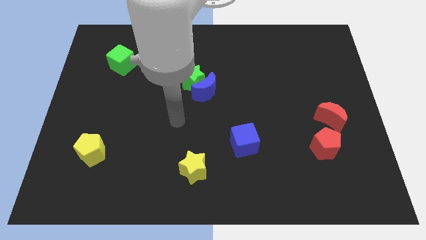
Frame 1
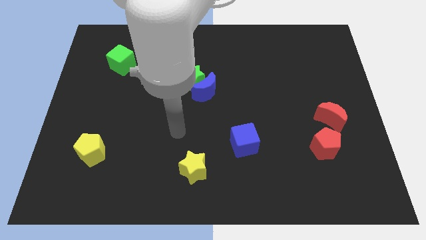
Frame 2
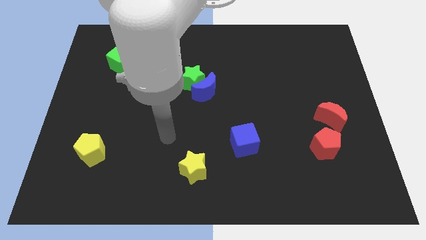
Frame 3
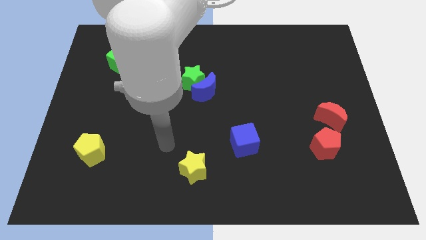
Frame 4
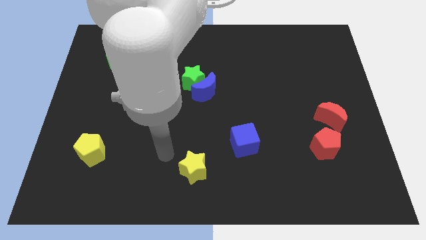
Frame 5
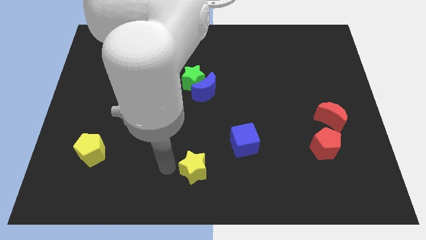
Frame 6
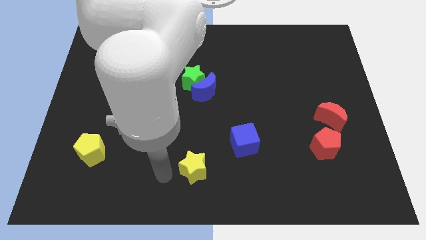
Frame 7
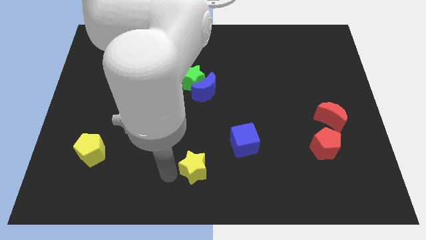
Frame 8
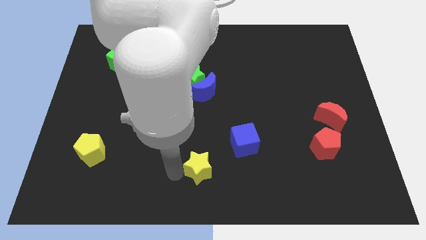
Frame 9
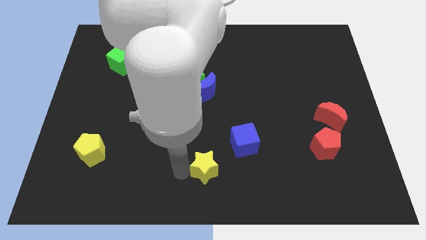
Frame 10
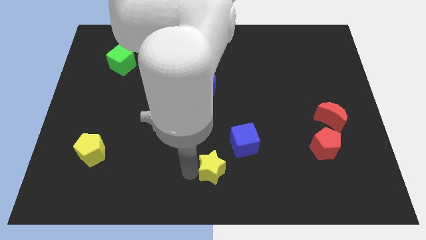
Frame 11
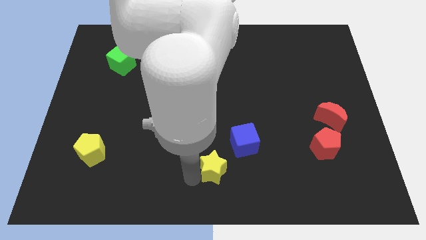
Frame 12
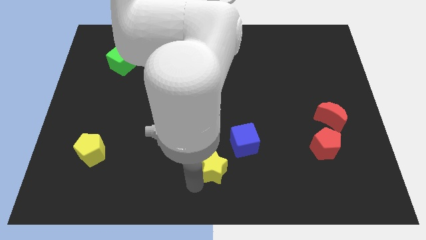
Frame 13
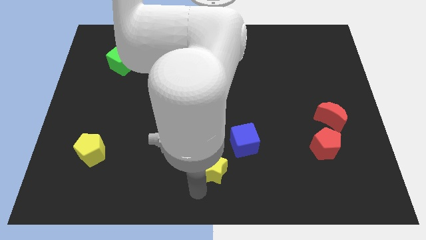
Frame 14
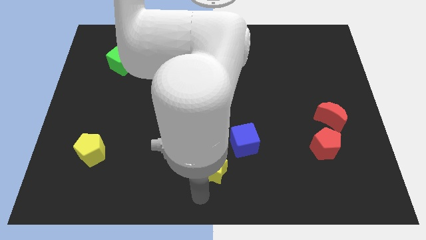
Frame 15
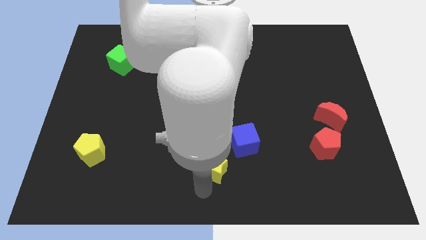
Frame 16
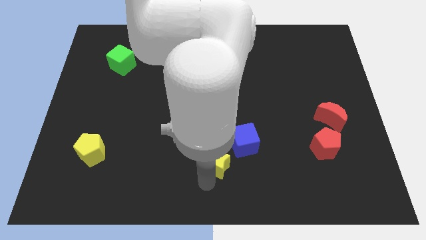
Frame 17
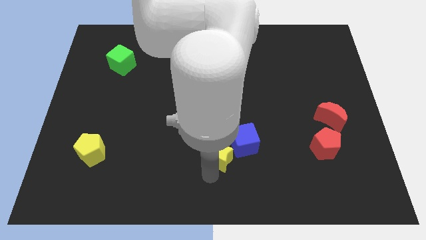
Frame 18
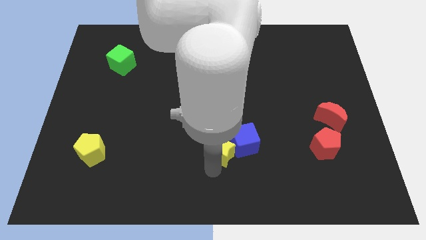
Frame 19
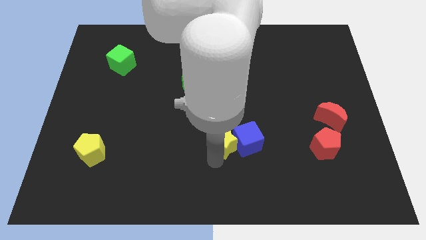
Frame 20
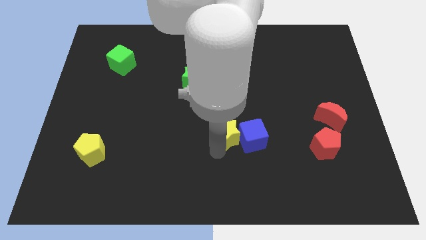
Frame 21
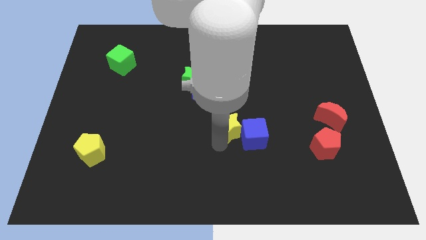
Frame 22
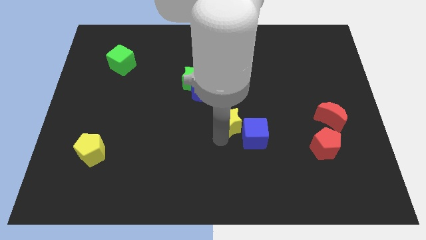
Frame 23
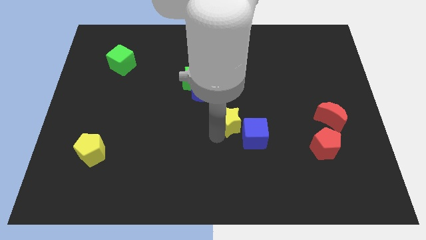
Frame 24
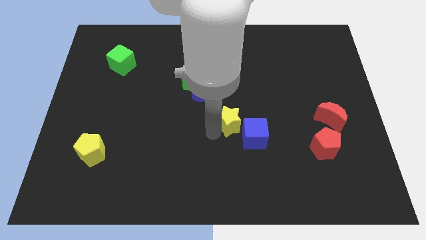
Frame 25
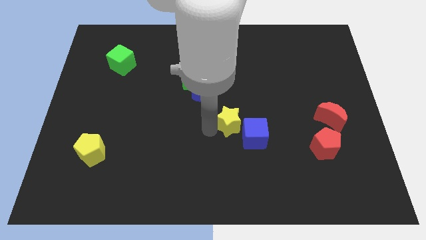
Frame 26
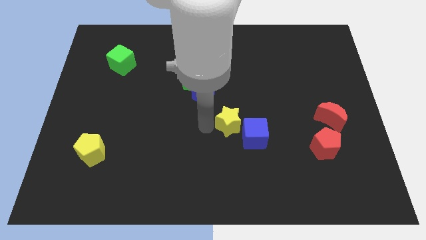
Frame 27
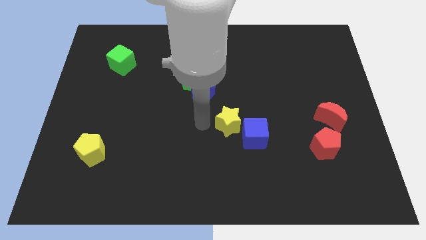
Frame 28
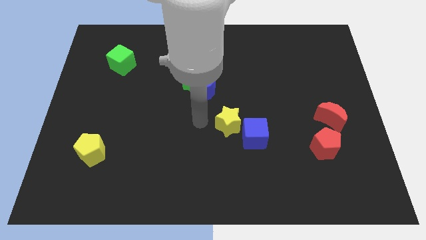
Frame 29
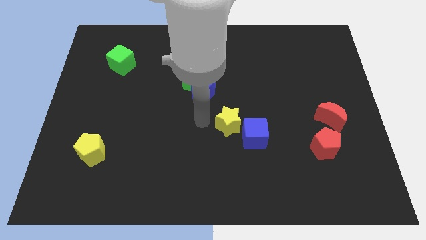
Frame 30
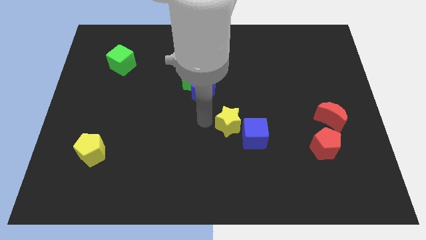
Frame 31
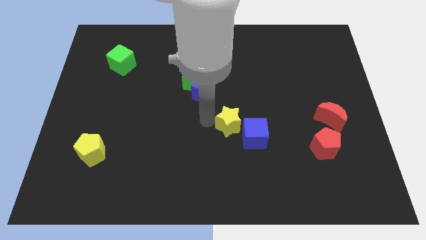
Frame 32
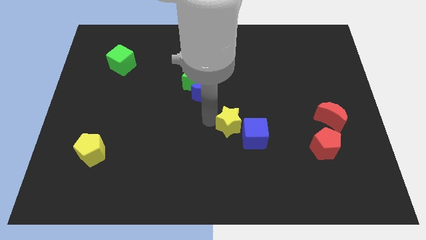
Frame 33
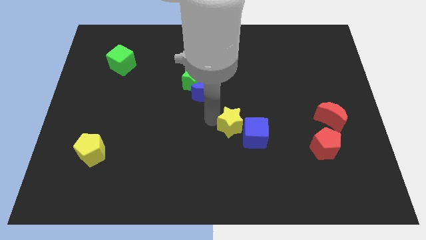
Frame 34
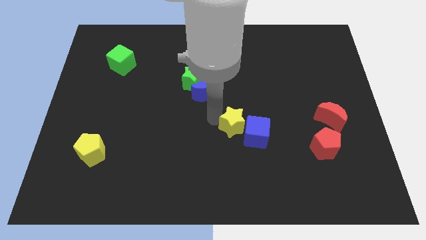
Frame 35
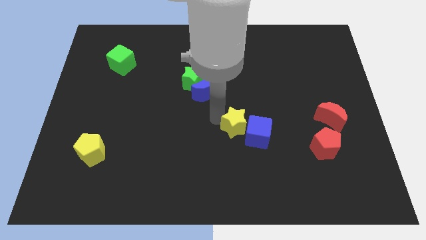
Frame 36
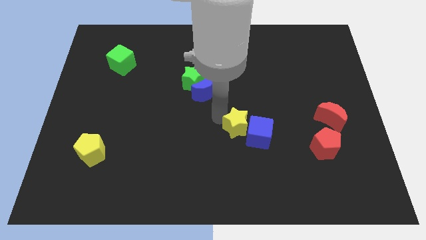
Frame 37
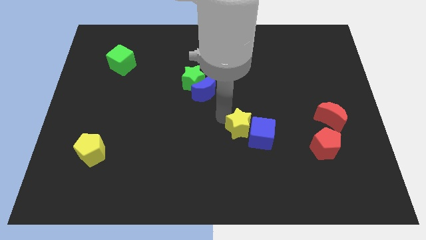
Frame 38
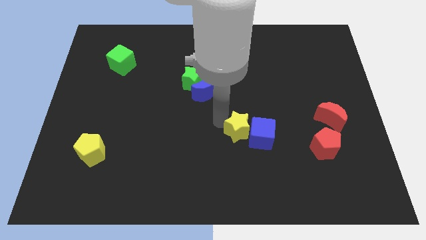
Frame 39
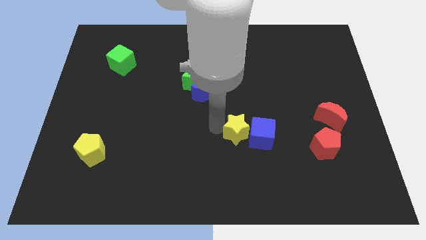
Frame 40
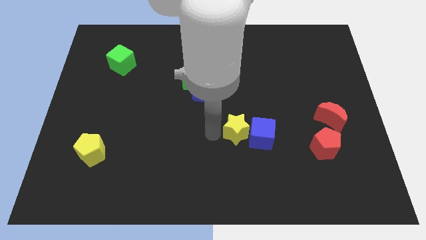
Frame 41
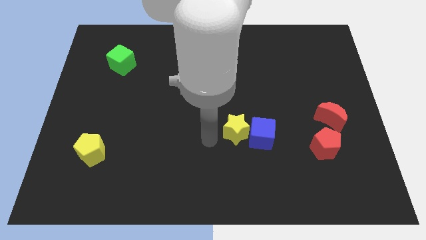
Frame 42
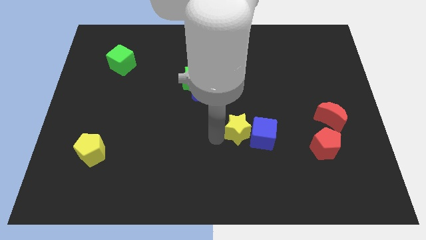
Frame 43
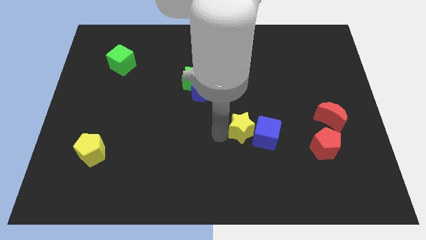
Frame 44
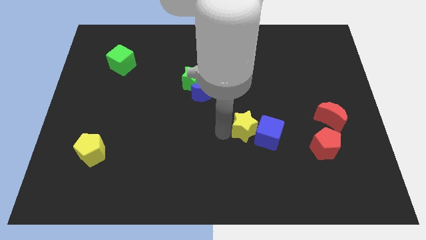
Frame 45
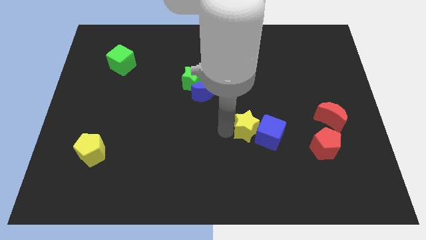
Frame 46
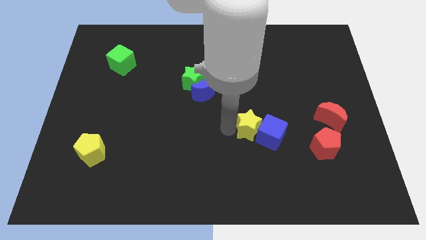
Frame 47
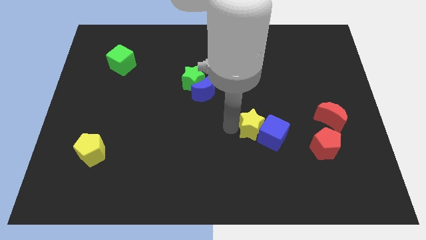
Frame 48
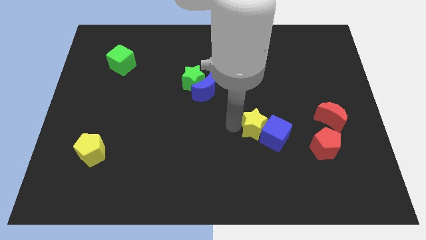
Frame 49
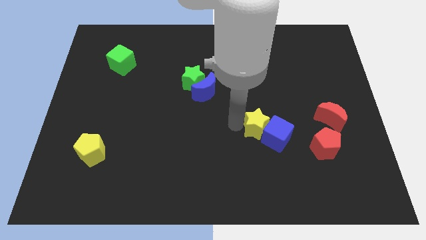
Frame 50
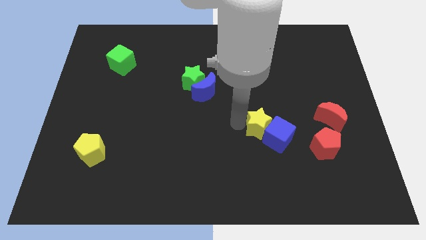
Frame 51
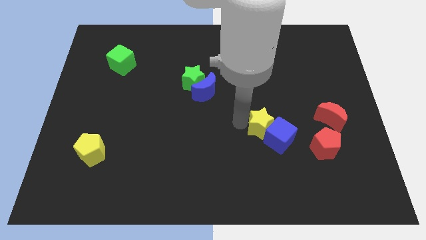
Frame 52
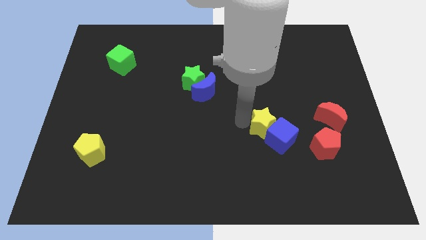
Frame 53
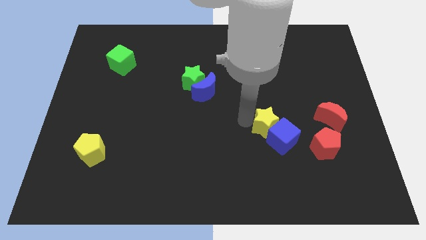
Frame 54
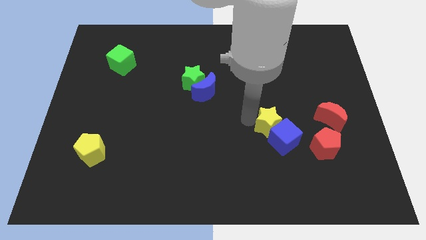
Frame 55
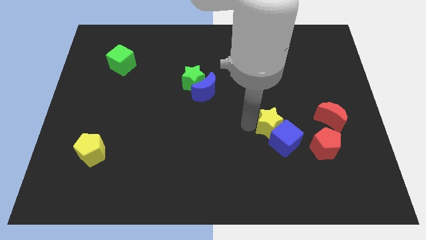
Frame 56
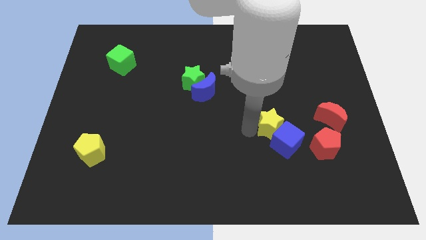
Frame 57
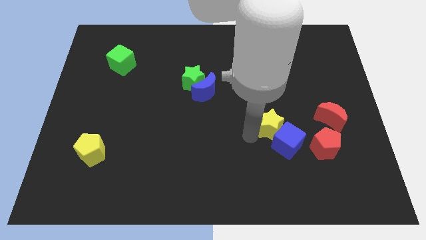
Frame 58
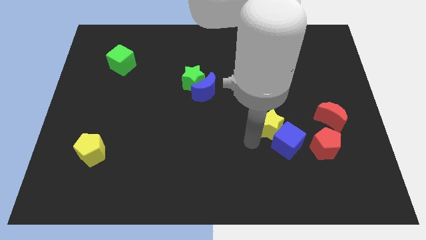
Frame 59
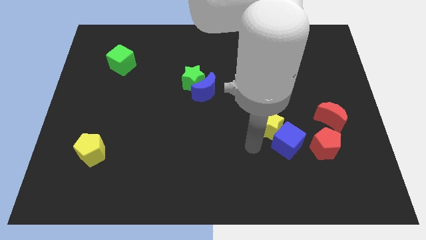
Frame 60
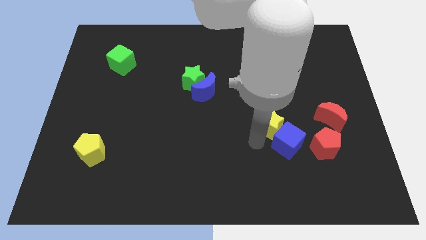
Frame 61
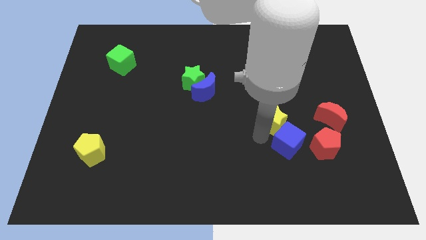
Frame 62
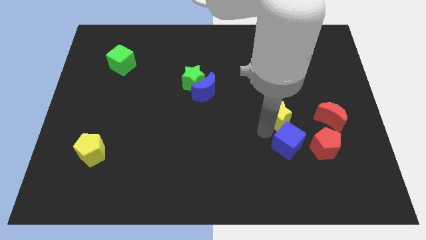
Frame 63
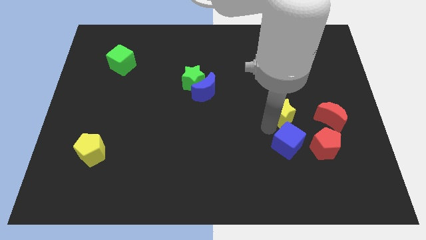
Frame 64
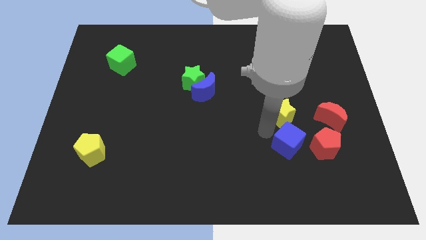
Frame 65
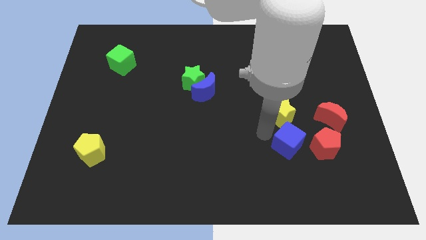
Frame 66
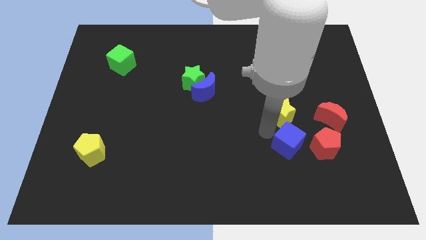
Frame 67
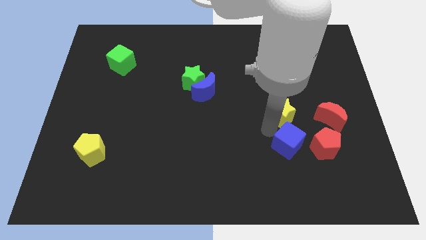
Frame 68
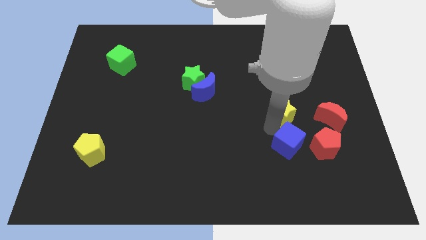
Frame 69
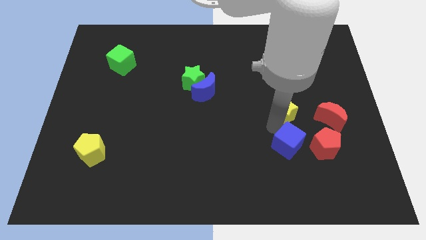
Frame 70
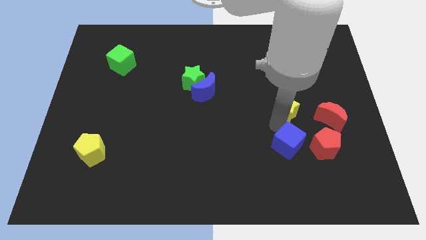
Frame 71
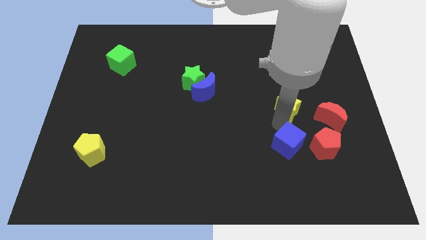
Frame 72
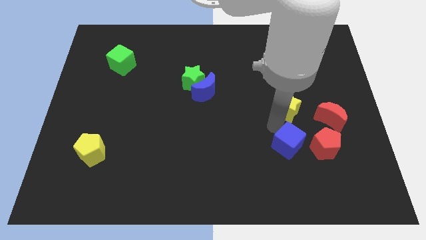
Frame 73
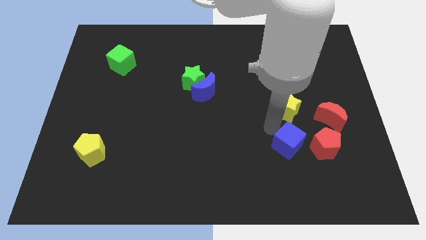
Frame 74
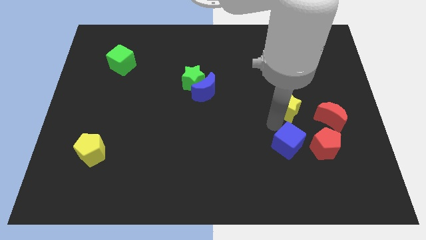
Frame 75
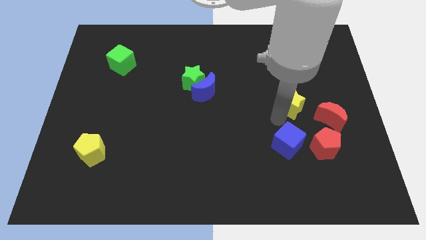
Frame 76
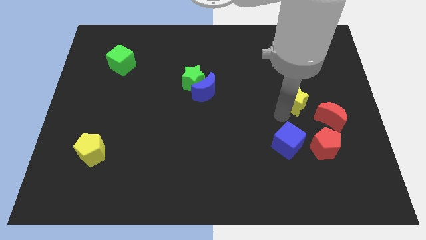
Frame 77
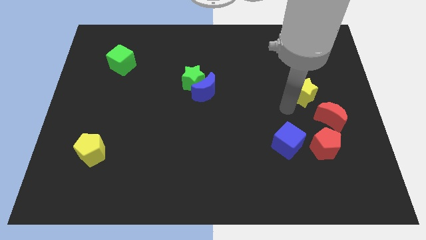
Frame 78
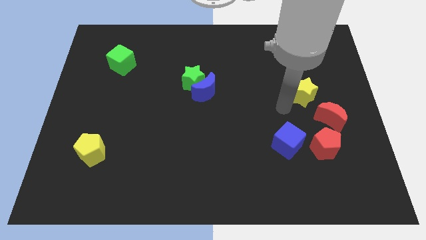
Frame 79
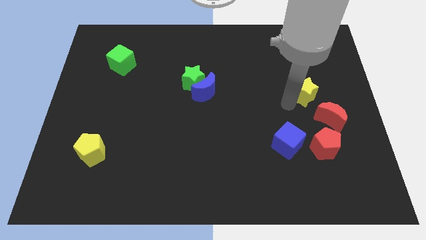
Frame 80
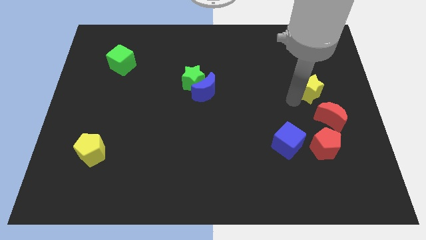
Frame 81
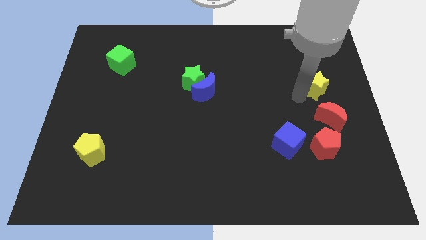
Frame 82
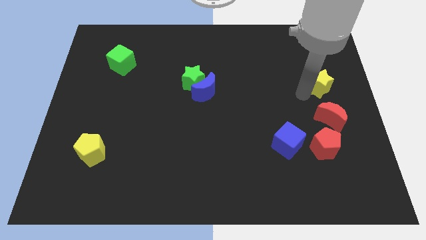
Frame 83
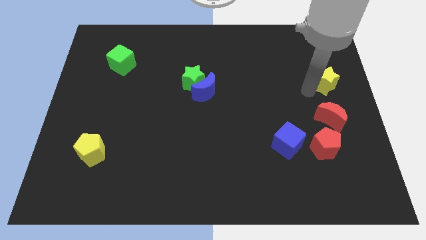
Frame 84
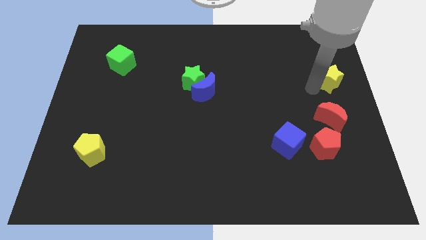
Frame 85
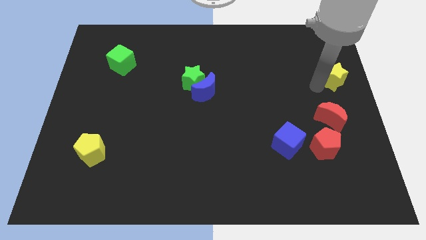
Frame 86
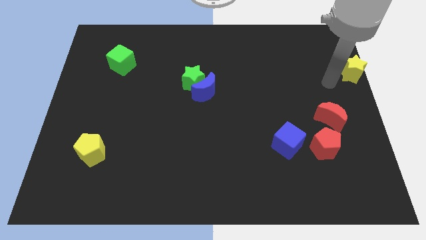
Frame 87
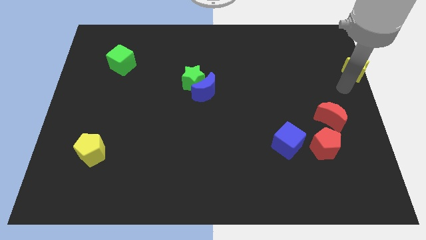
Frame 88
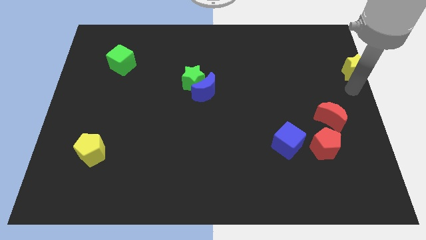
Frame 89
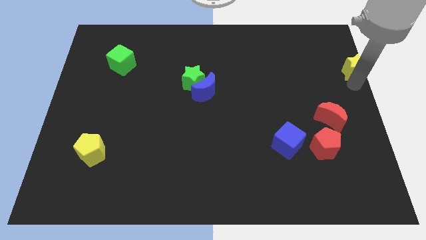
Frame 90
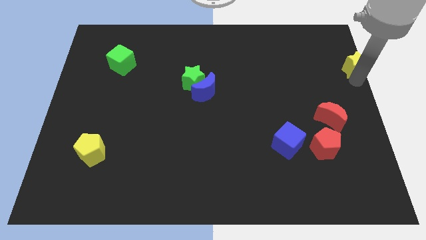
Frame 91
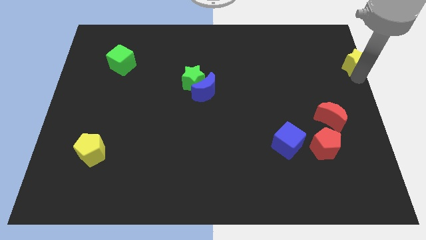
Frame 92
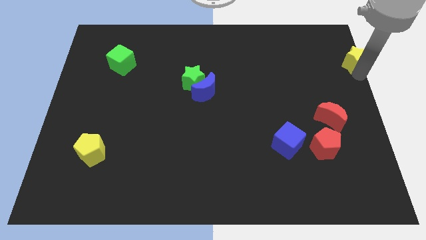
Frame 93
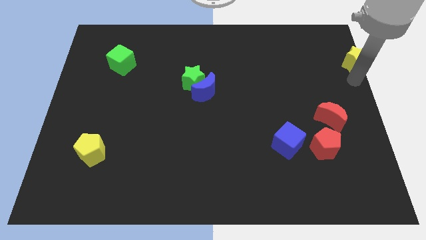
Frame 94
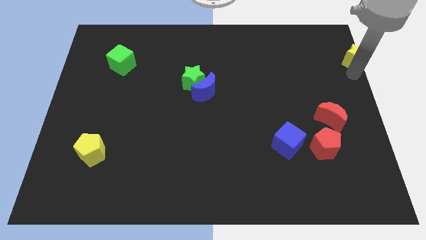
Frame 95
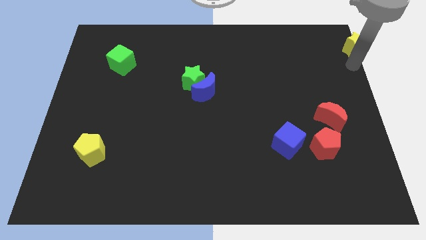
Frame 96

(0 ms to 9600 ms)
put the yellow star to the top right corner
